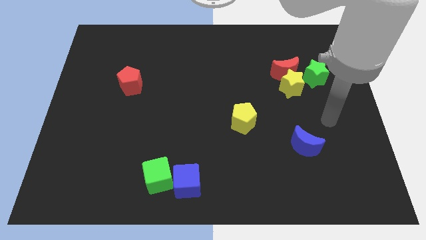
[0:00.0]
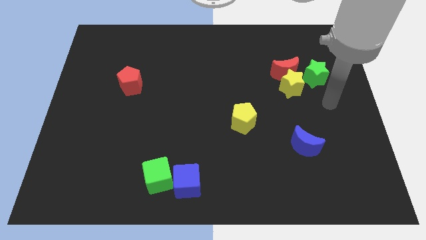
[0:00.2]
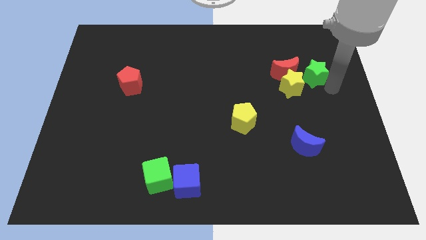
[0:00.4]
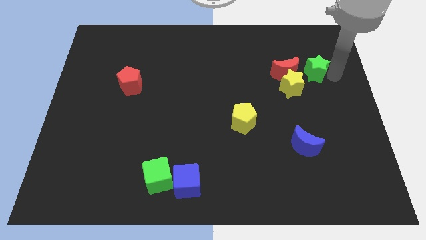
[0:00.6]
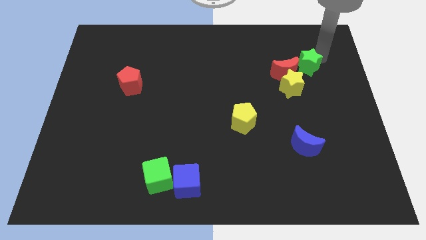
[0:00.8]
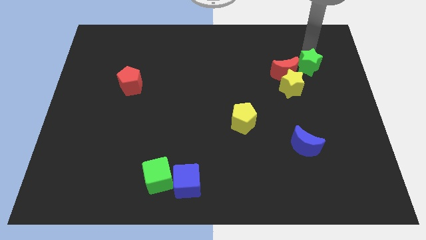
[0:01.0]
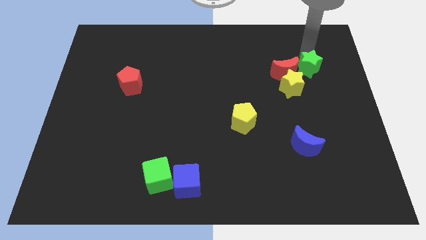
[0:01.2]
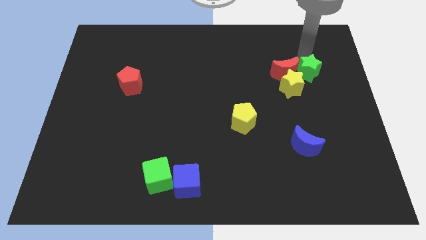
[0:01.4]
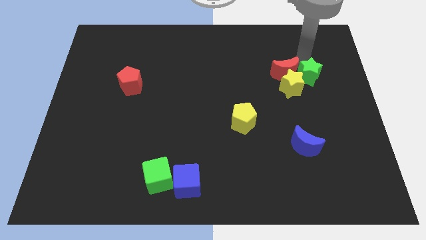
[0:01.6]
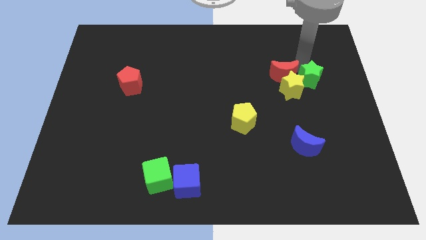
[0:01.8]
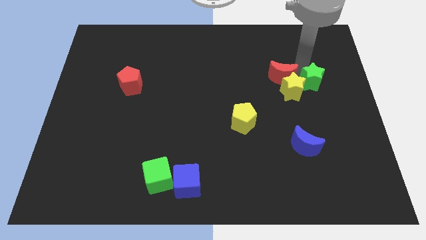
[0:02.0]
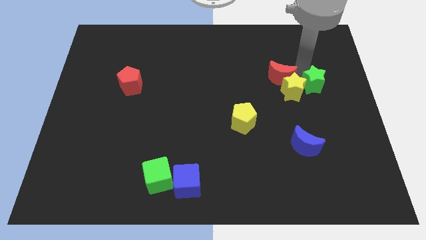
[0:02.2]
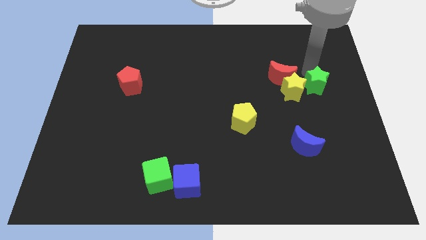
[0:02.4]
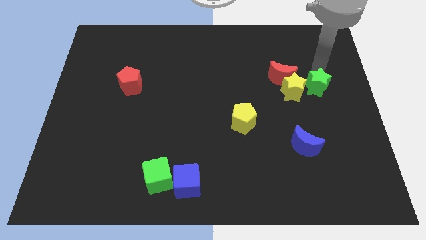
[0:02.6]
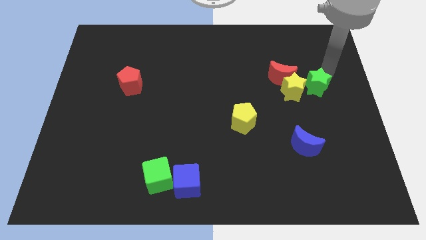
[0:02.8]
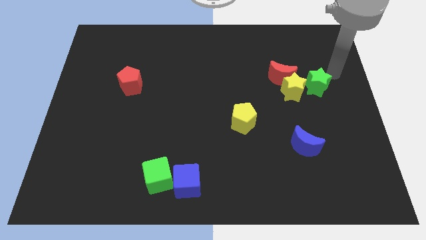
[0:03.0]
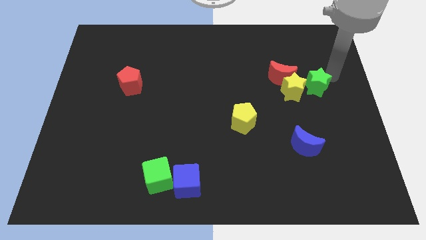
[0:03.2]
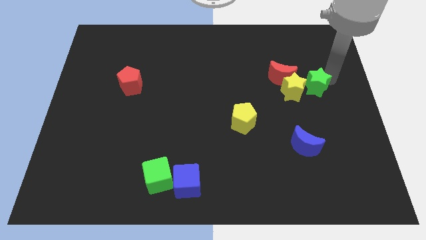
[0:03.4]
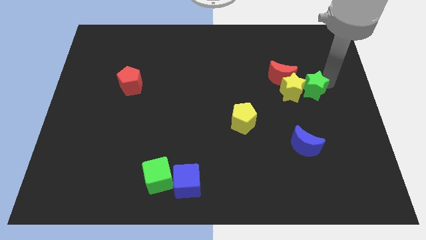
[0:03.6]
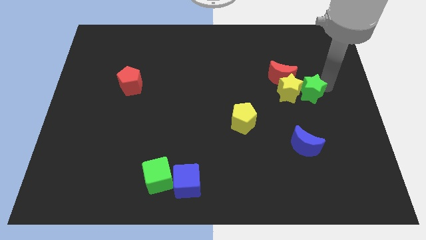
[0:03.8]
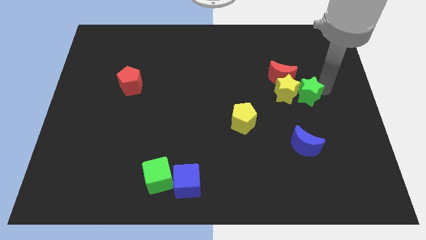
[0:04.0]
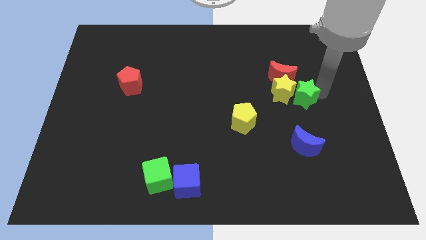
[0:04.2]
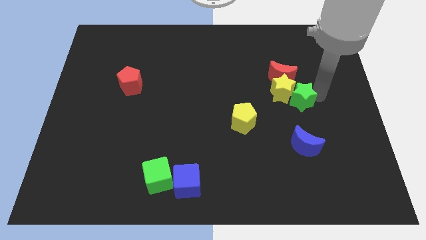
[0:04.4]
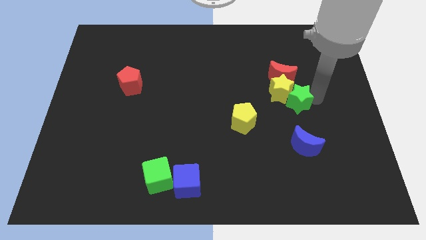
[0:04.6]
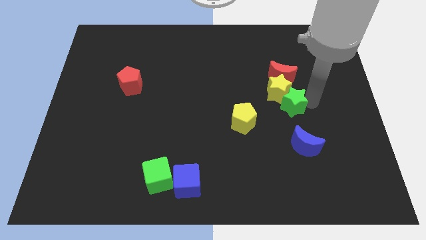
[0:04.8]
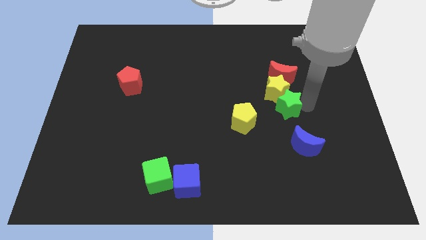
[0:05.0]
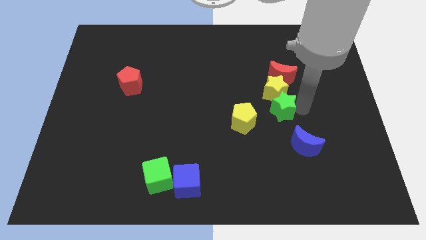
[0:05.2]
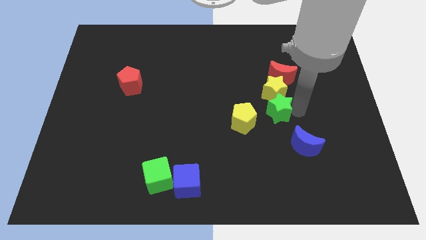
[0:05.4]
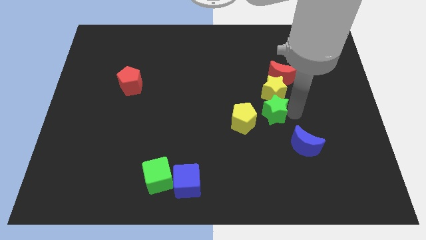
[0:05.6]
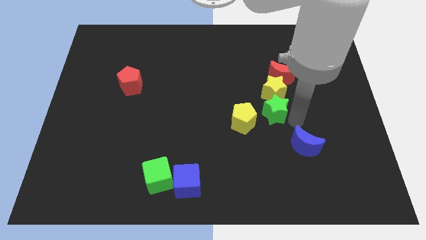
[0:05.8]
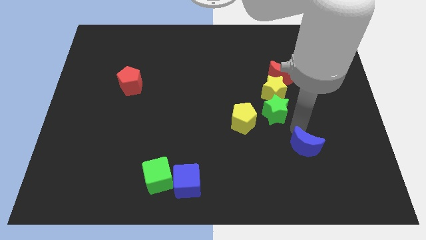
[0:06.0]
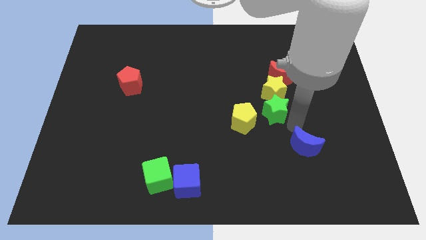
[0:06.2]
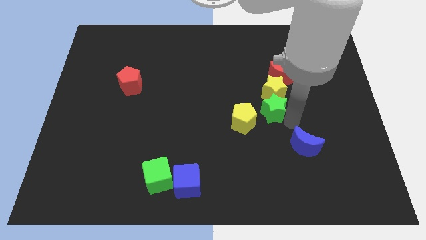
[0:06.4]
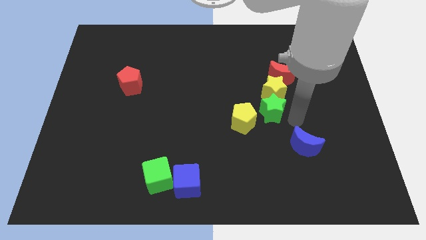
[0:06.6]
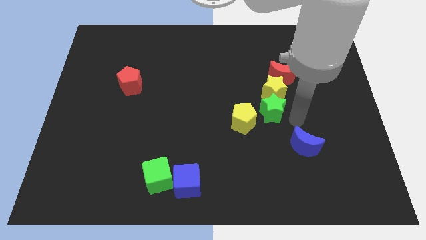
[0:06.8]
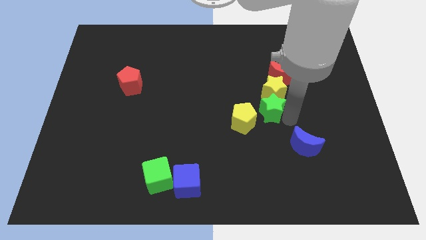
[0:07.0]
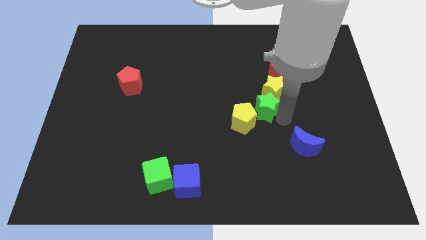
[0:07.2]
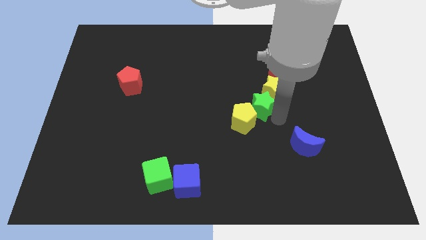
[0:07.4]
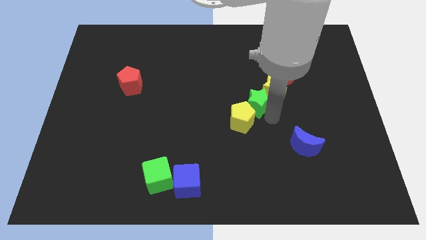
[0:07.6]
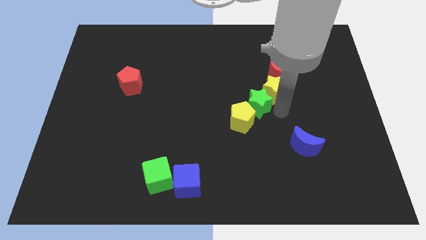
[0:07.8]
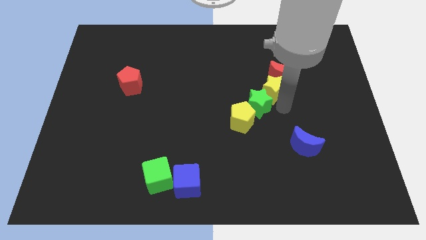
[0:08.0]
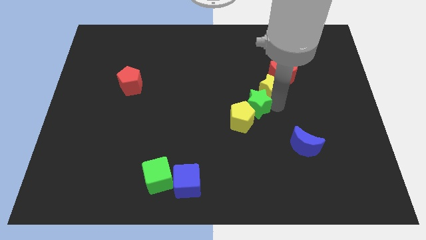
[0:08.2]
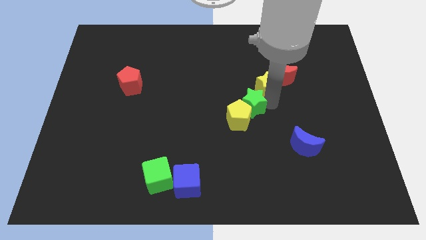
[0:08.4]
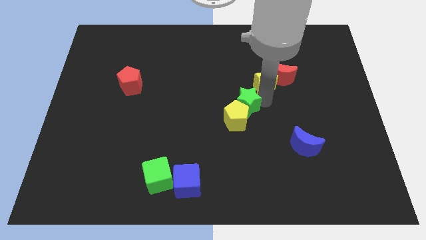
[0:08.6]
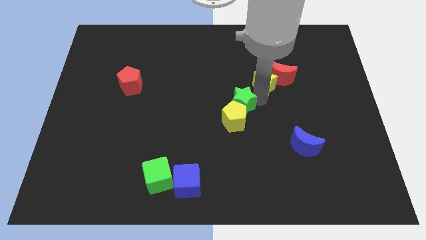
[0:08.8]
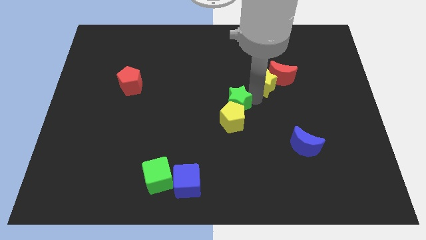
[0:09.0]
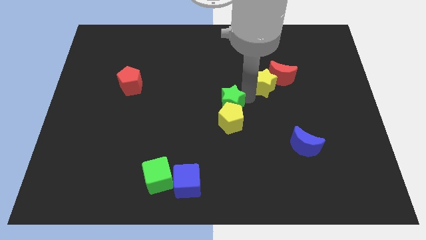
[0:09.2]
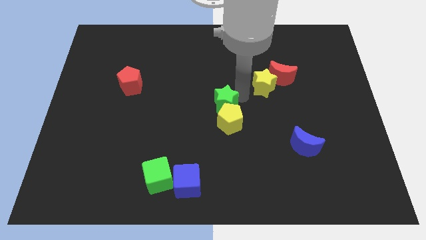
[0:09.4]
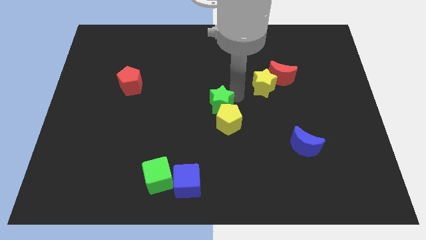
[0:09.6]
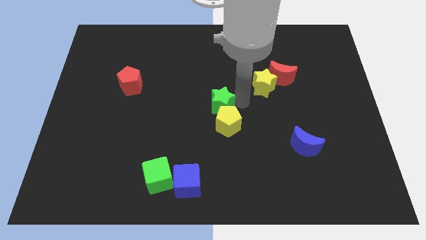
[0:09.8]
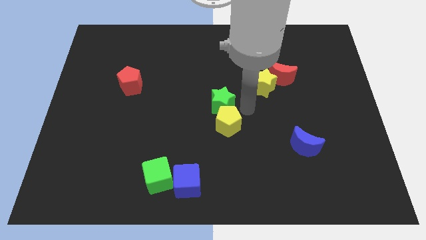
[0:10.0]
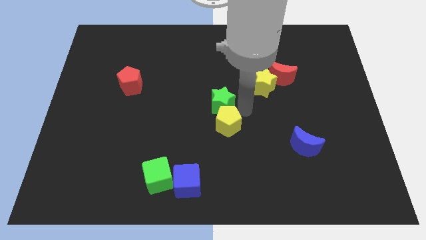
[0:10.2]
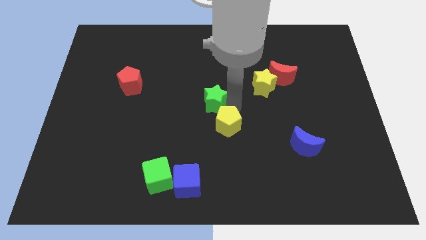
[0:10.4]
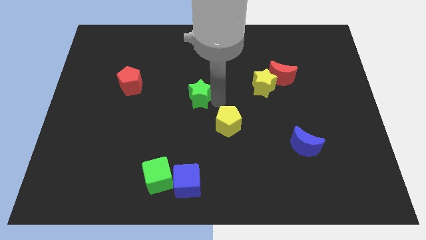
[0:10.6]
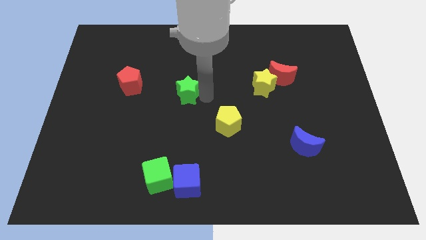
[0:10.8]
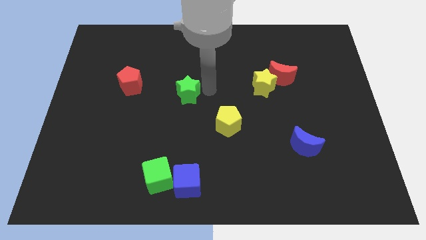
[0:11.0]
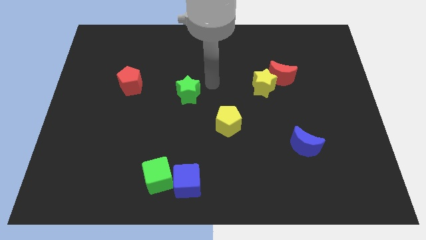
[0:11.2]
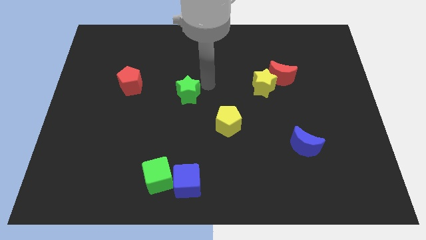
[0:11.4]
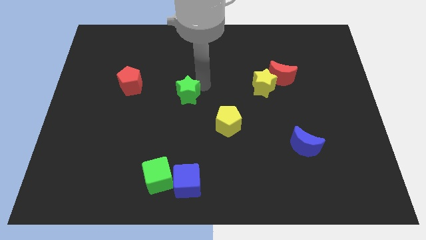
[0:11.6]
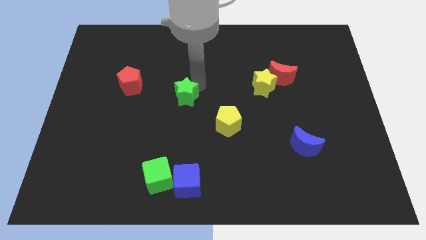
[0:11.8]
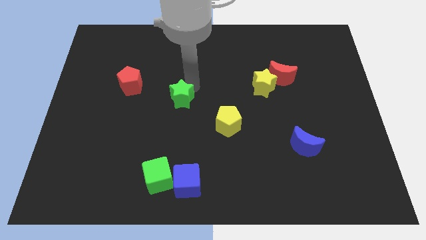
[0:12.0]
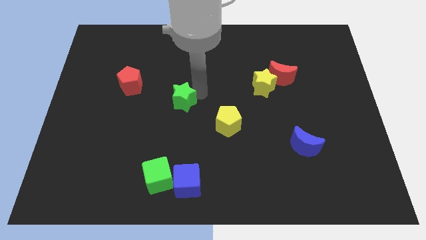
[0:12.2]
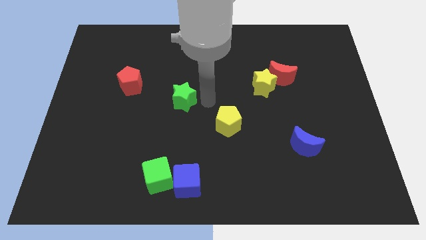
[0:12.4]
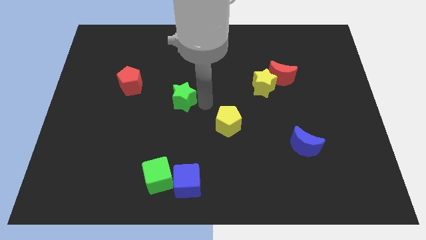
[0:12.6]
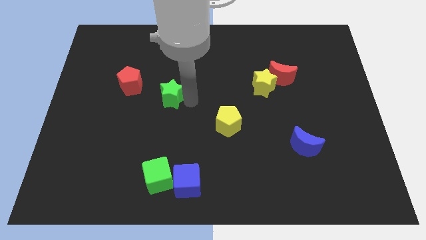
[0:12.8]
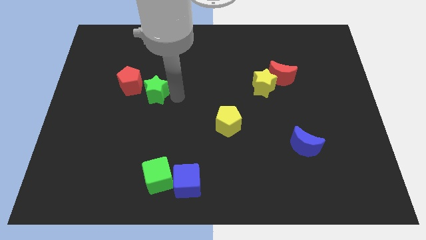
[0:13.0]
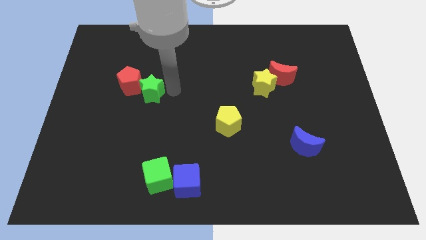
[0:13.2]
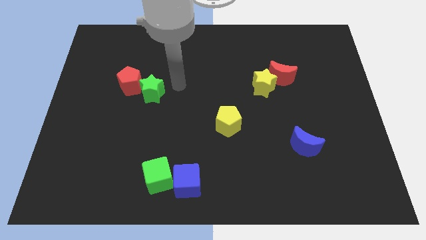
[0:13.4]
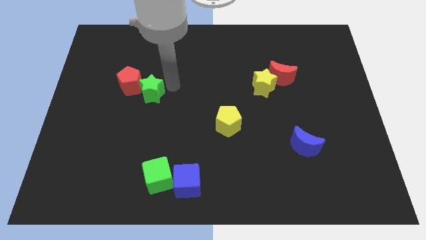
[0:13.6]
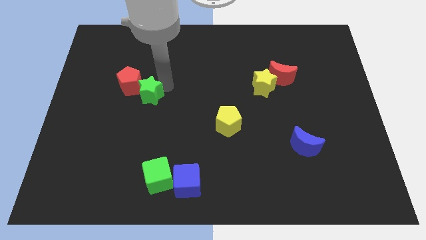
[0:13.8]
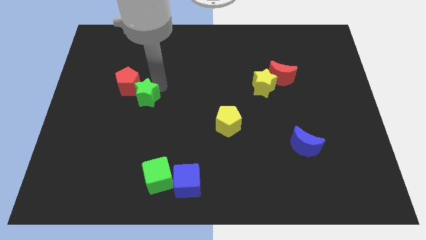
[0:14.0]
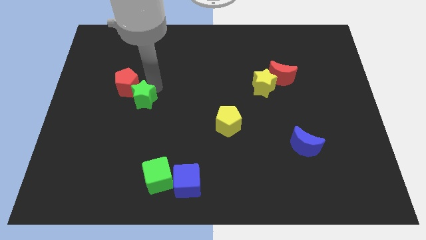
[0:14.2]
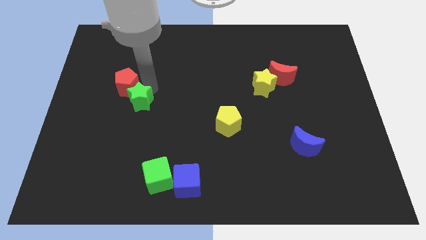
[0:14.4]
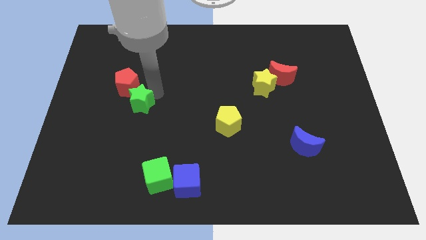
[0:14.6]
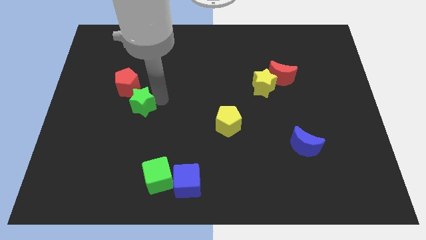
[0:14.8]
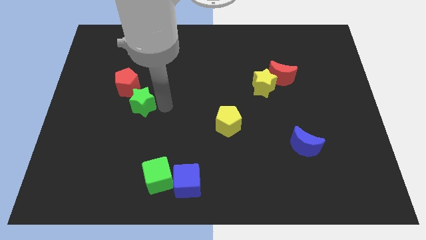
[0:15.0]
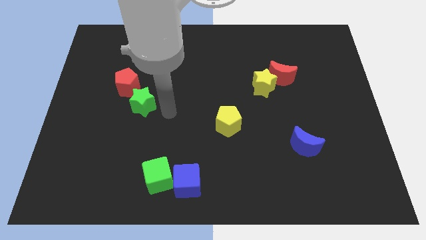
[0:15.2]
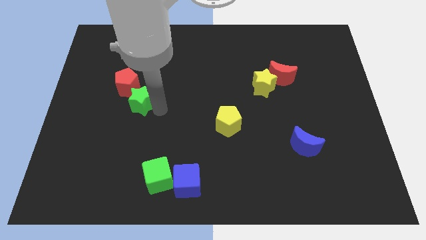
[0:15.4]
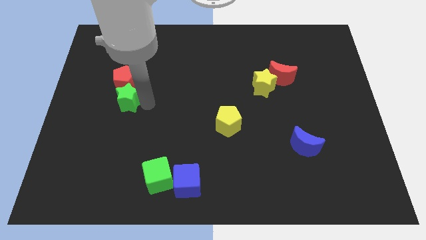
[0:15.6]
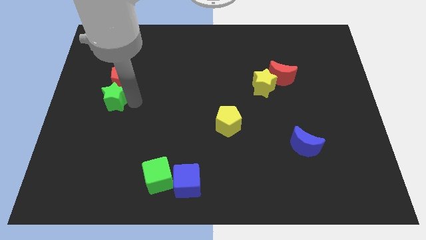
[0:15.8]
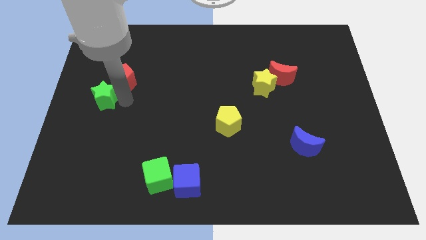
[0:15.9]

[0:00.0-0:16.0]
put the green star to the center left

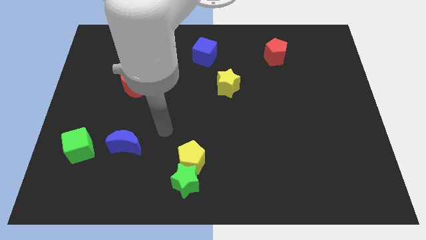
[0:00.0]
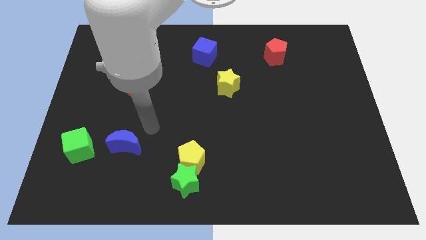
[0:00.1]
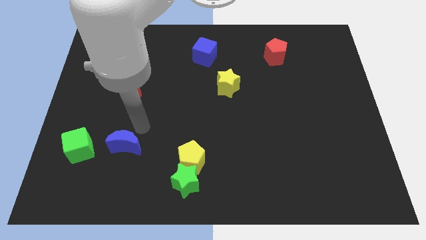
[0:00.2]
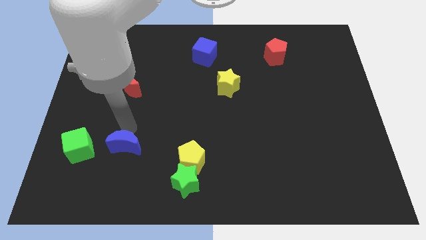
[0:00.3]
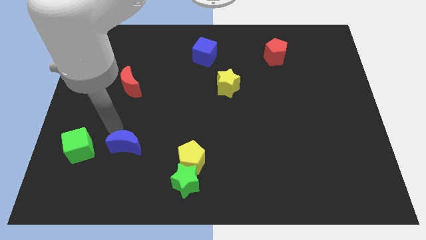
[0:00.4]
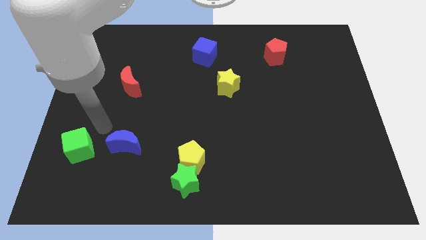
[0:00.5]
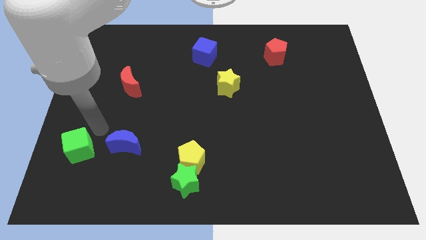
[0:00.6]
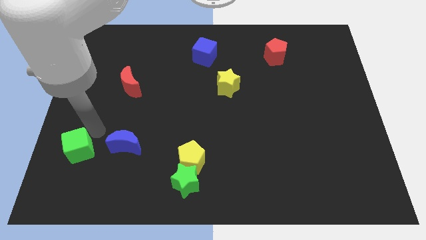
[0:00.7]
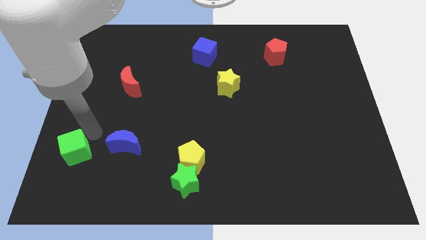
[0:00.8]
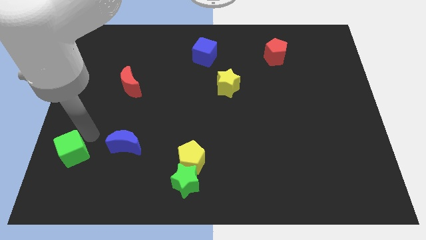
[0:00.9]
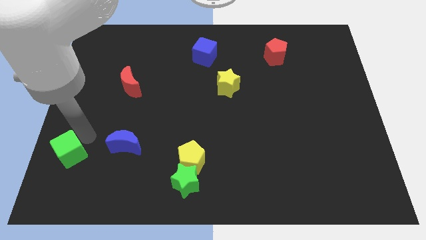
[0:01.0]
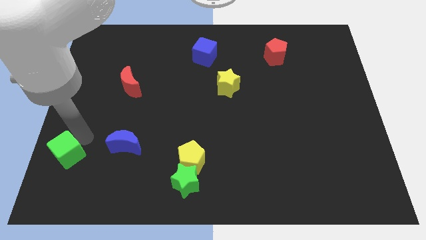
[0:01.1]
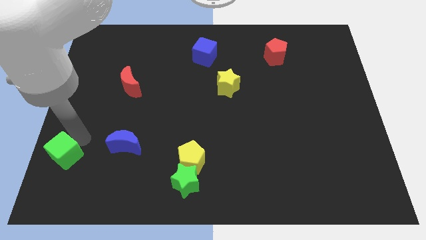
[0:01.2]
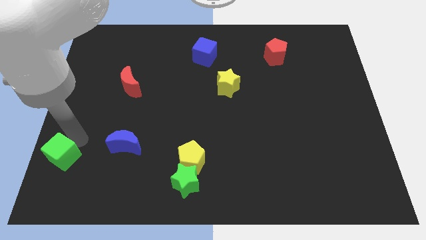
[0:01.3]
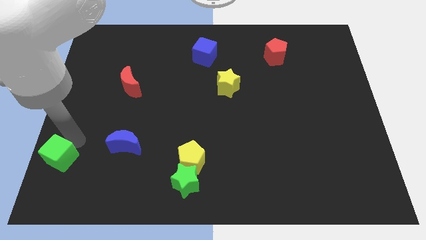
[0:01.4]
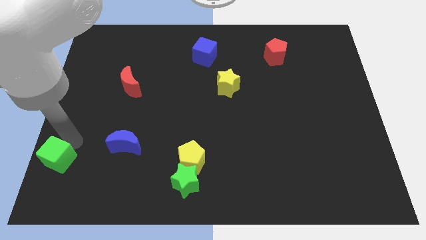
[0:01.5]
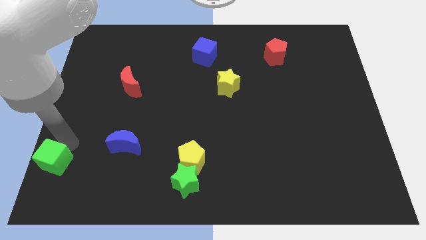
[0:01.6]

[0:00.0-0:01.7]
slide the green cube to the bottom left
